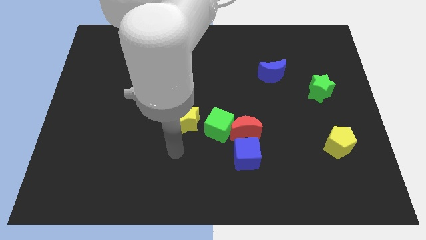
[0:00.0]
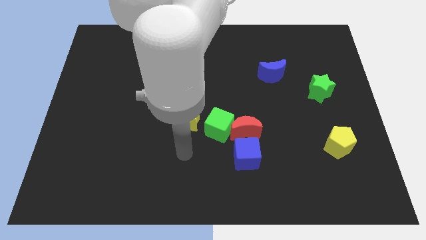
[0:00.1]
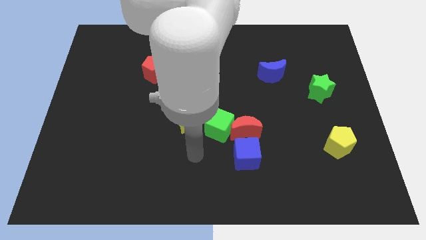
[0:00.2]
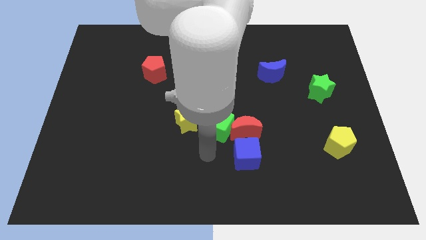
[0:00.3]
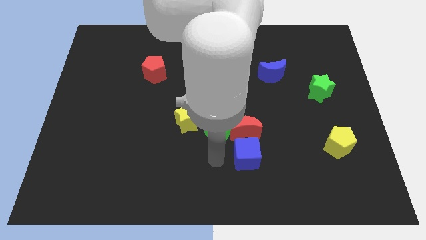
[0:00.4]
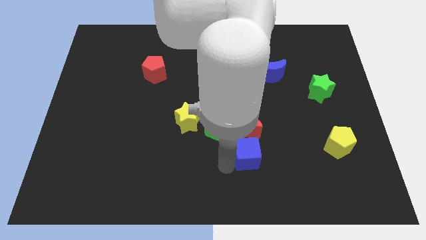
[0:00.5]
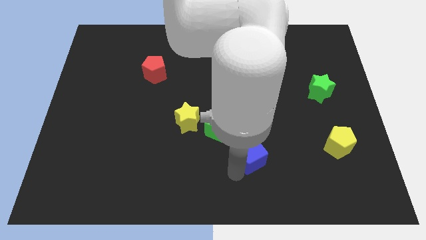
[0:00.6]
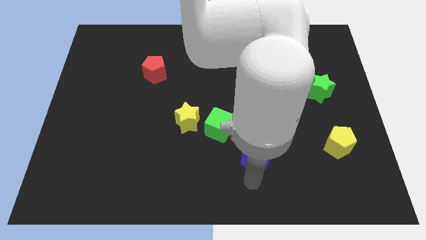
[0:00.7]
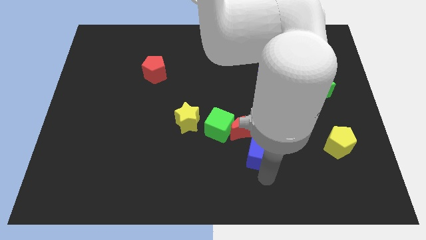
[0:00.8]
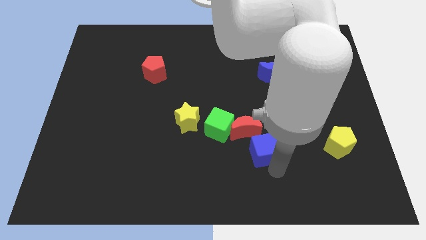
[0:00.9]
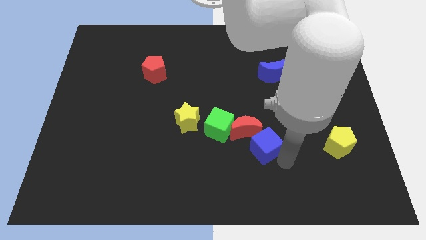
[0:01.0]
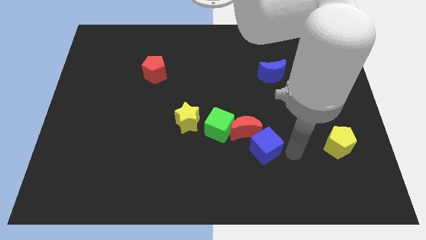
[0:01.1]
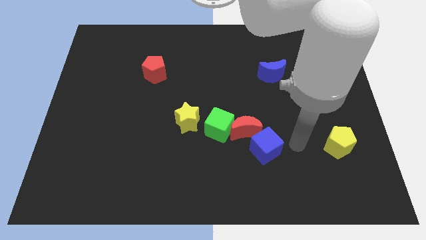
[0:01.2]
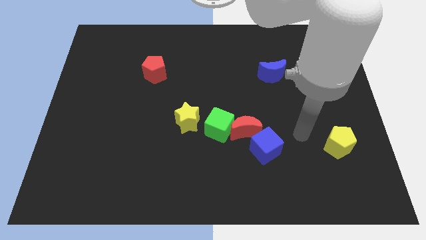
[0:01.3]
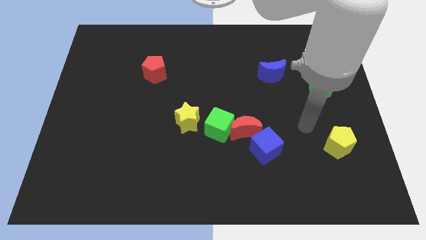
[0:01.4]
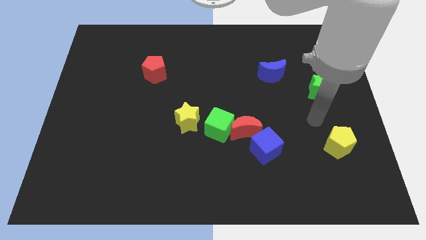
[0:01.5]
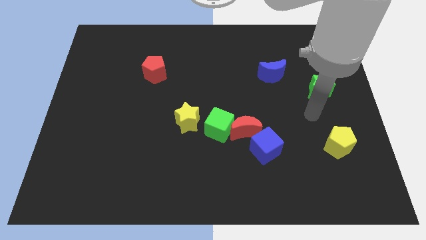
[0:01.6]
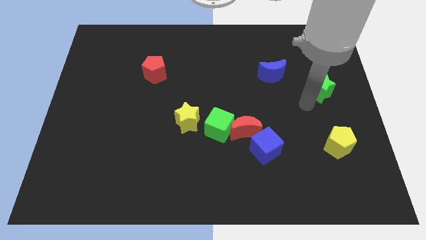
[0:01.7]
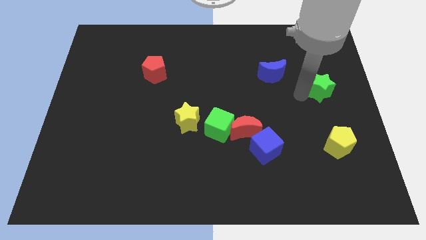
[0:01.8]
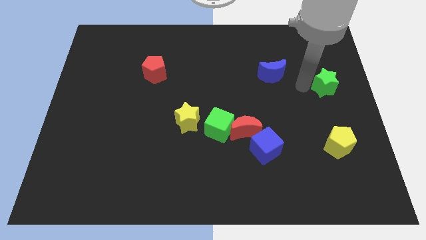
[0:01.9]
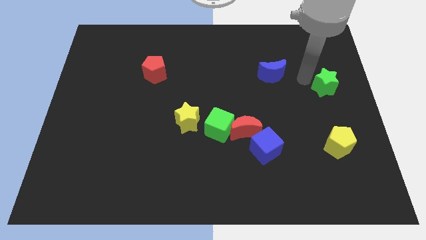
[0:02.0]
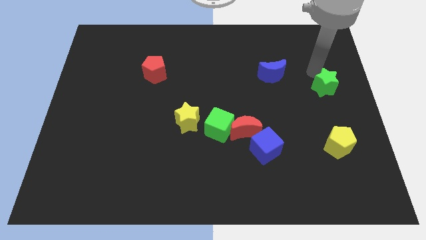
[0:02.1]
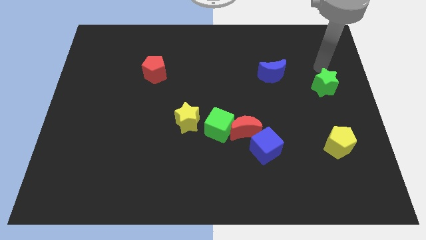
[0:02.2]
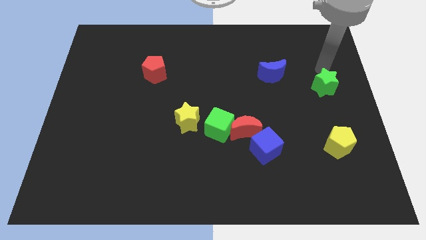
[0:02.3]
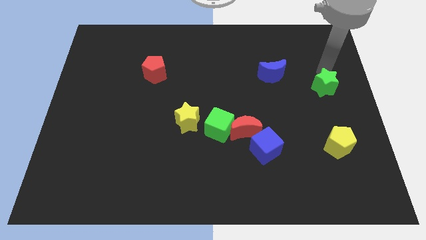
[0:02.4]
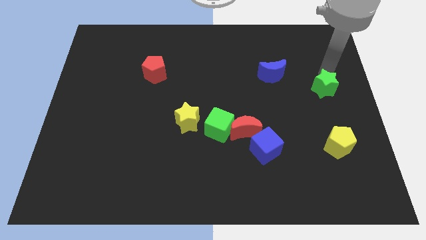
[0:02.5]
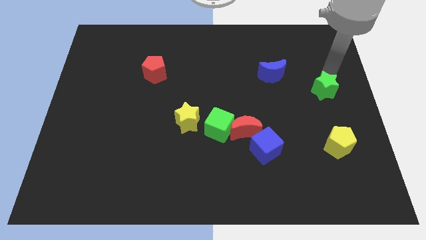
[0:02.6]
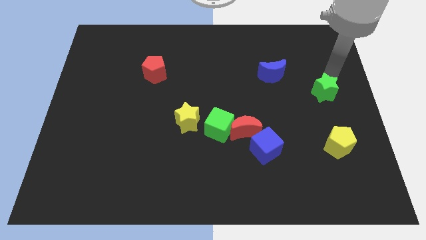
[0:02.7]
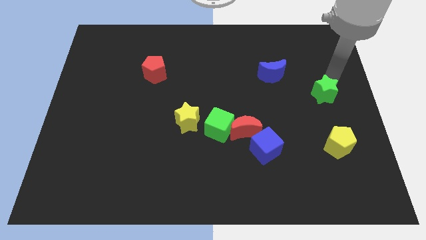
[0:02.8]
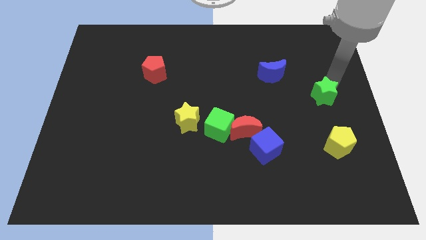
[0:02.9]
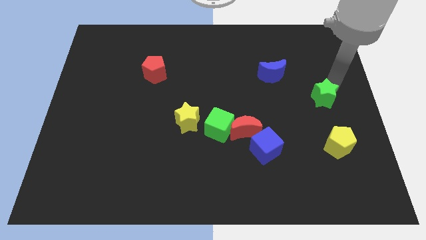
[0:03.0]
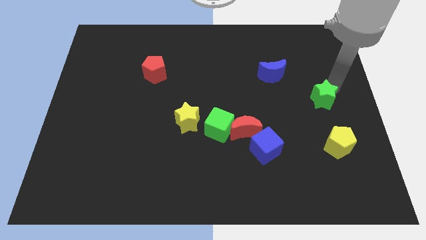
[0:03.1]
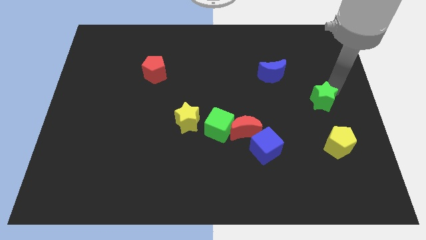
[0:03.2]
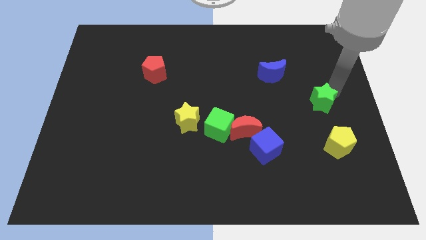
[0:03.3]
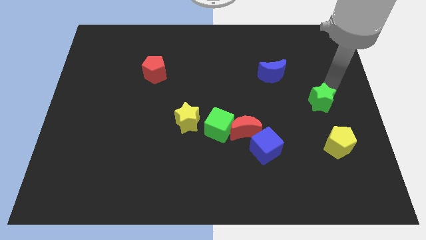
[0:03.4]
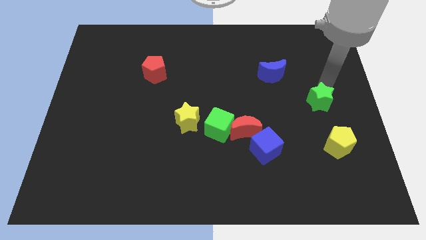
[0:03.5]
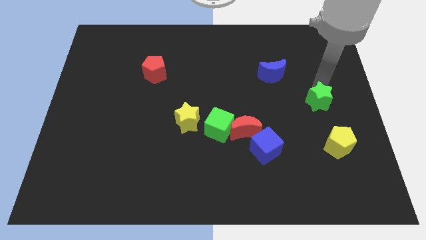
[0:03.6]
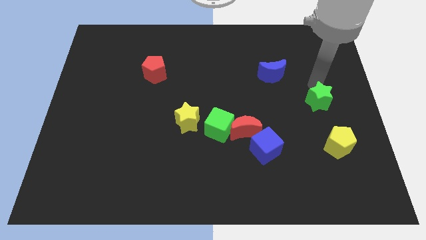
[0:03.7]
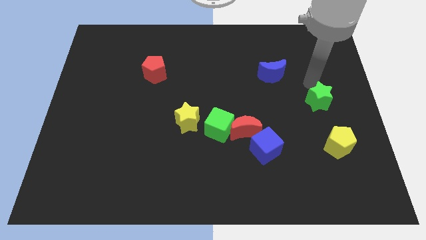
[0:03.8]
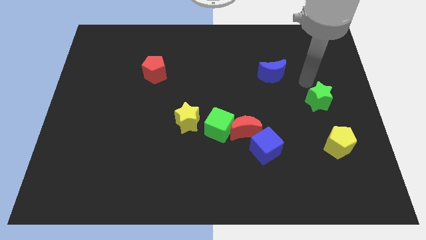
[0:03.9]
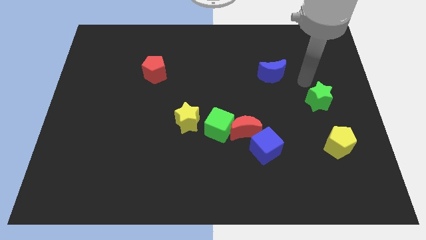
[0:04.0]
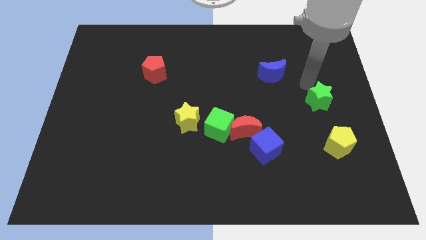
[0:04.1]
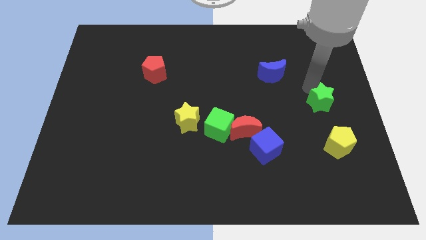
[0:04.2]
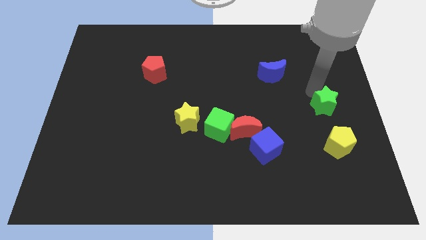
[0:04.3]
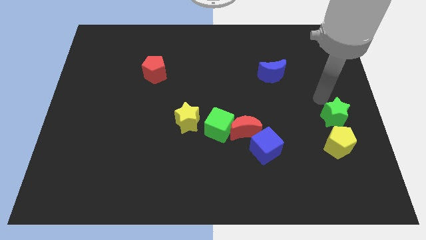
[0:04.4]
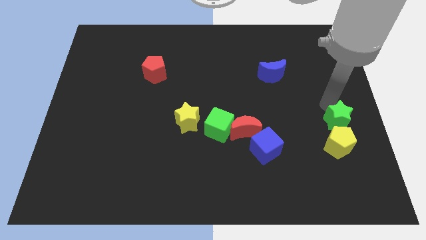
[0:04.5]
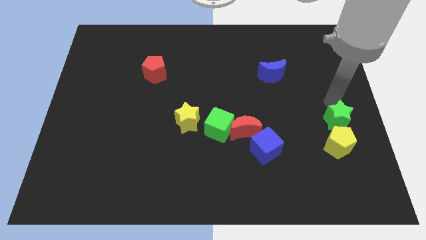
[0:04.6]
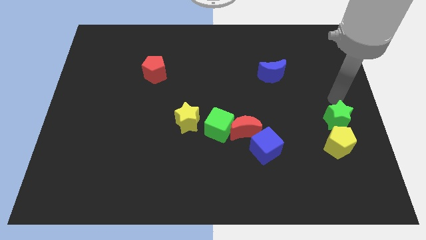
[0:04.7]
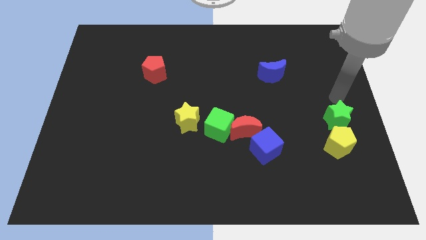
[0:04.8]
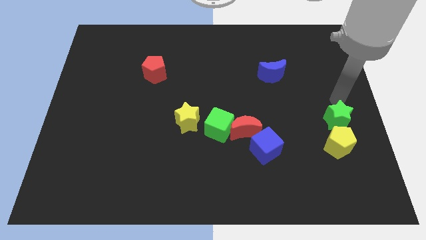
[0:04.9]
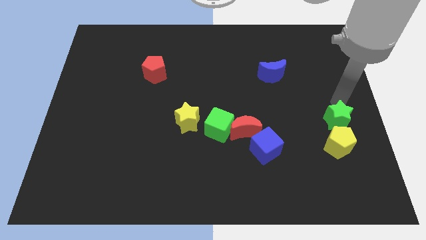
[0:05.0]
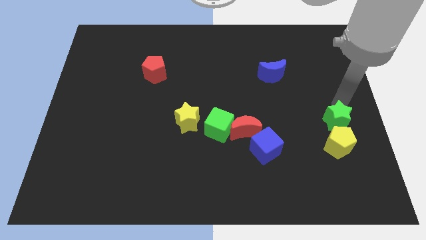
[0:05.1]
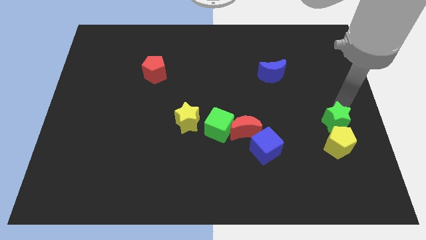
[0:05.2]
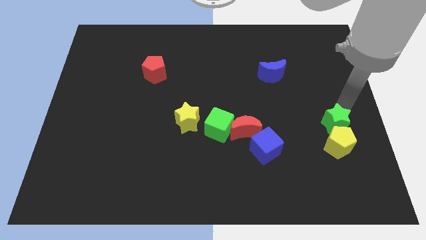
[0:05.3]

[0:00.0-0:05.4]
slide the green star next to the yellow pentagon

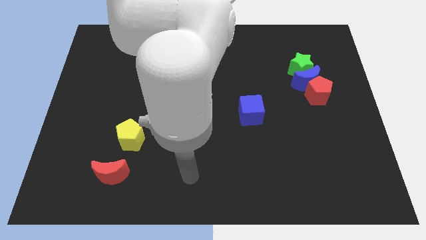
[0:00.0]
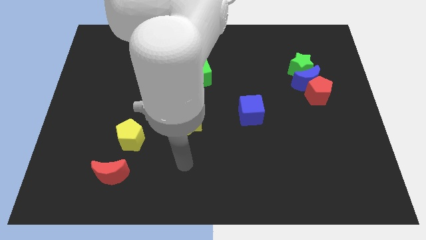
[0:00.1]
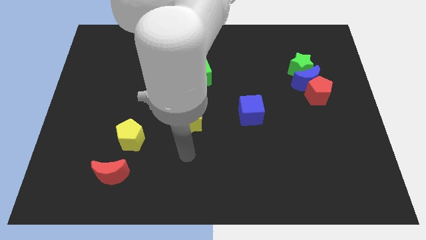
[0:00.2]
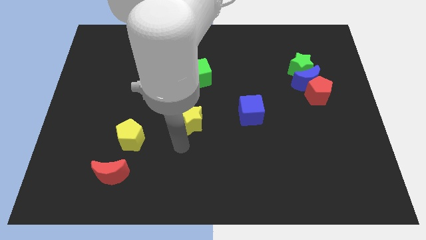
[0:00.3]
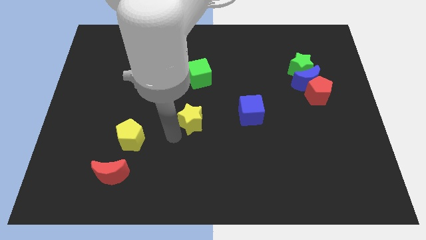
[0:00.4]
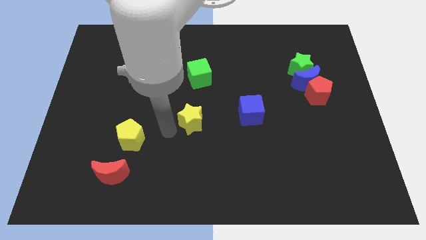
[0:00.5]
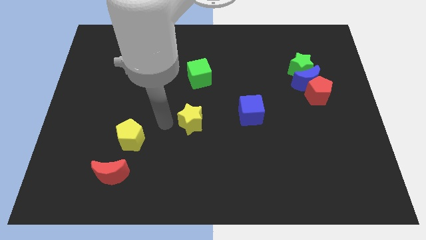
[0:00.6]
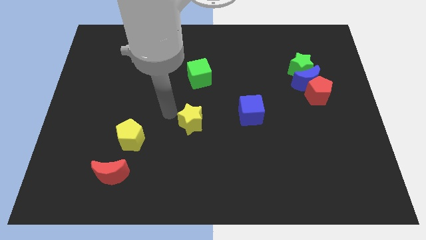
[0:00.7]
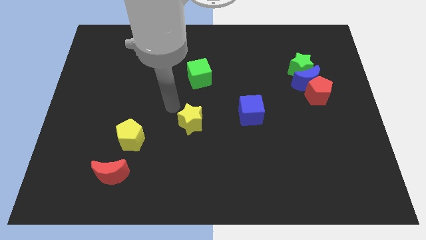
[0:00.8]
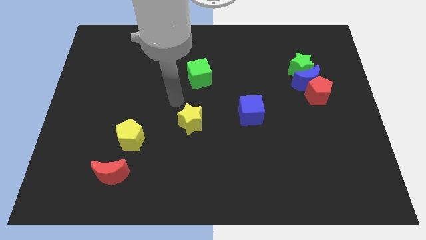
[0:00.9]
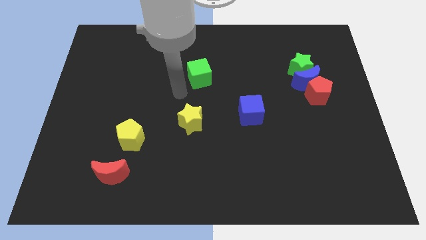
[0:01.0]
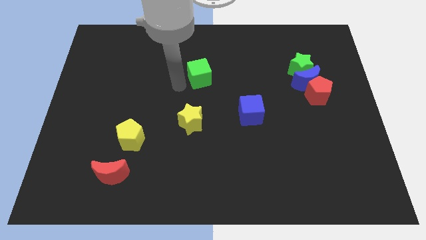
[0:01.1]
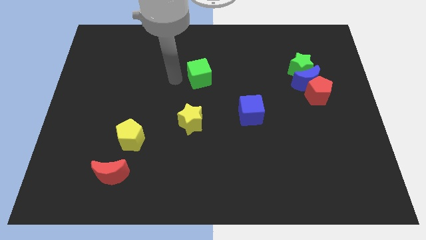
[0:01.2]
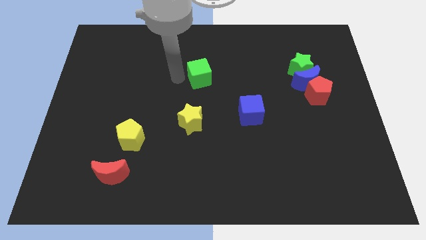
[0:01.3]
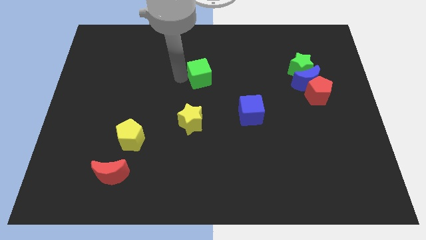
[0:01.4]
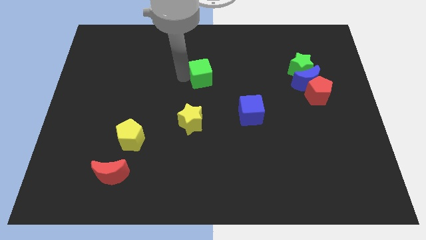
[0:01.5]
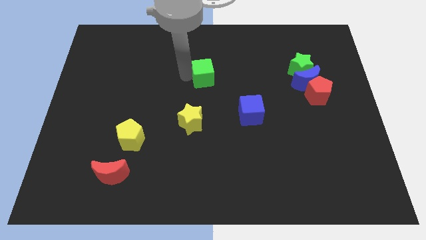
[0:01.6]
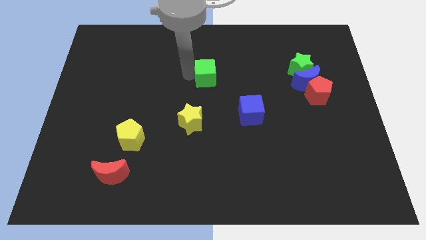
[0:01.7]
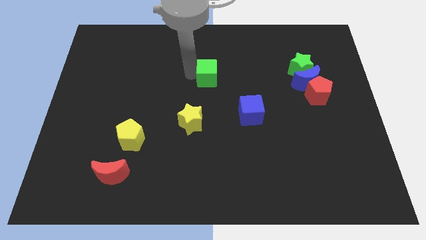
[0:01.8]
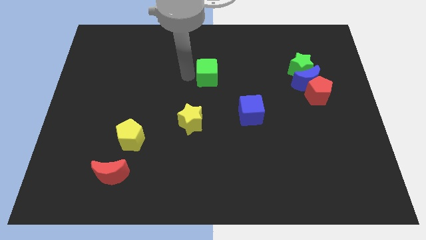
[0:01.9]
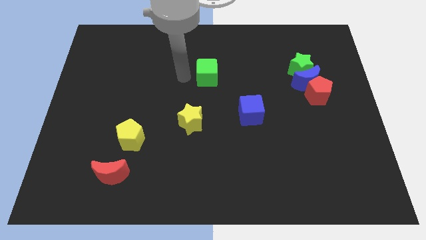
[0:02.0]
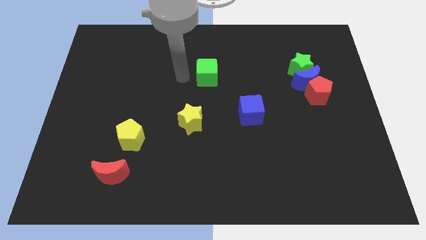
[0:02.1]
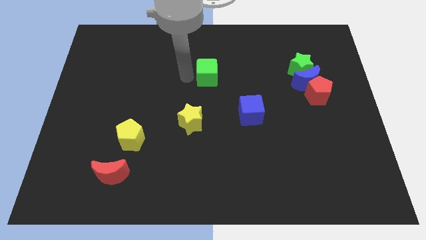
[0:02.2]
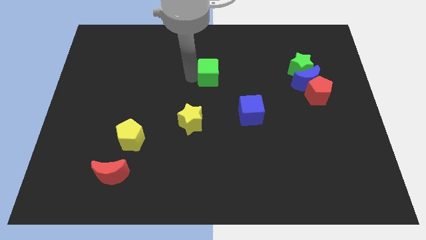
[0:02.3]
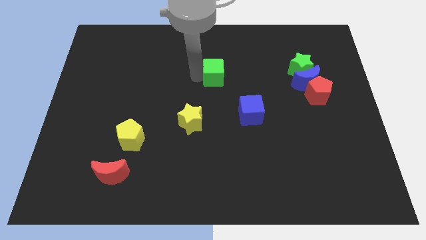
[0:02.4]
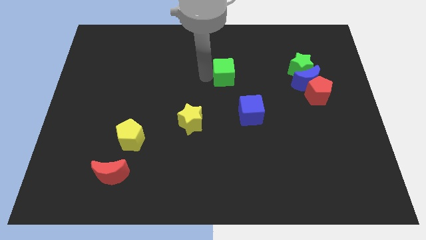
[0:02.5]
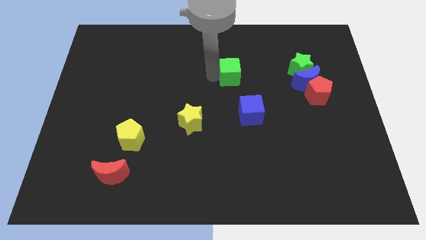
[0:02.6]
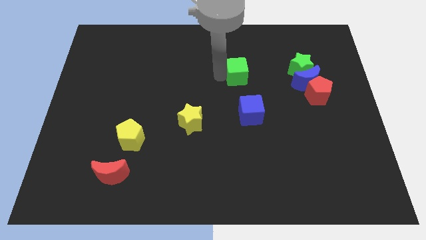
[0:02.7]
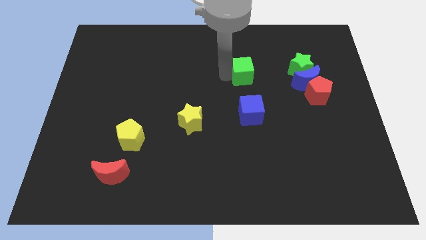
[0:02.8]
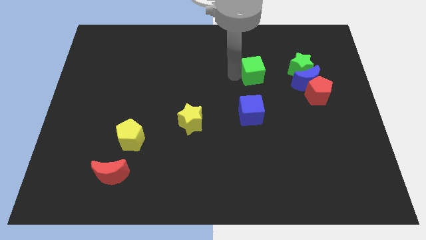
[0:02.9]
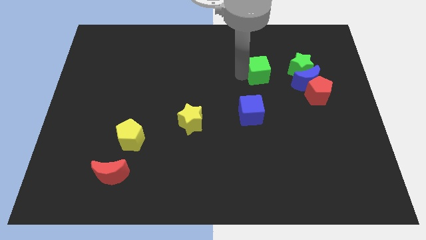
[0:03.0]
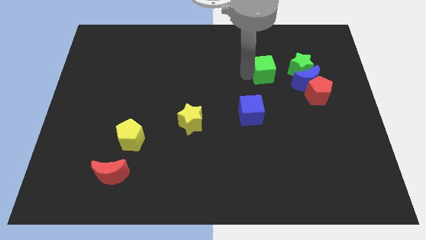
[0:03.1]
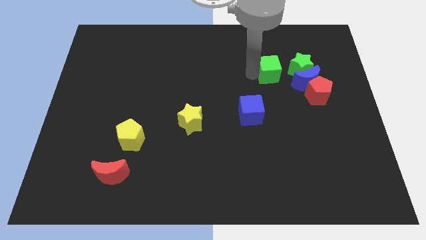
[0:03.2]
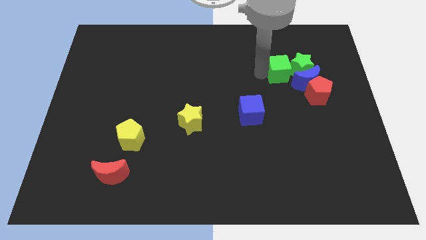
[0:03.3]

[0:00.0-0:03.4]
move the green cube to the green star
